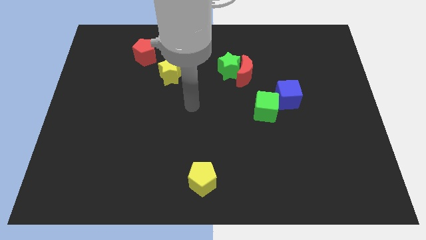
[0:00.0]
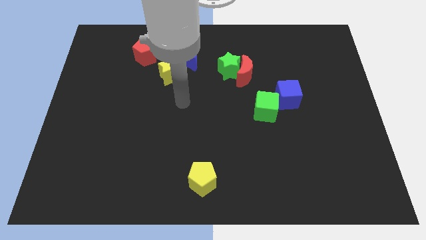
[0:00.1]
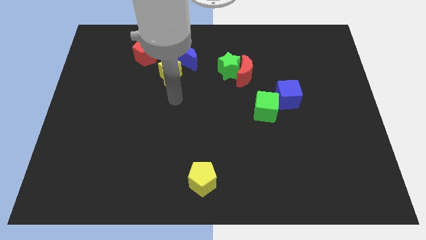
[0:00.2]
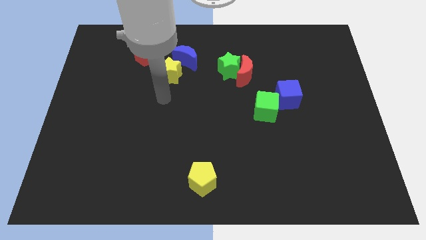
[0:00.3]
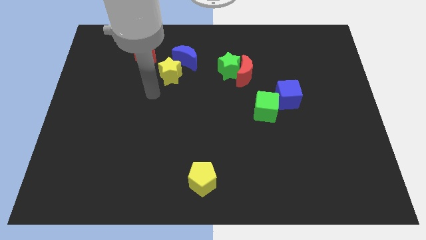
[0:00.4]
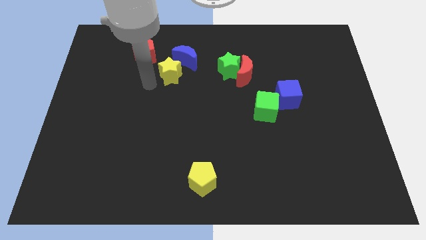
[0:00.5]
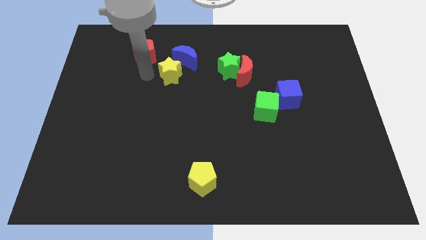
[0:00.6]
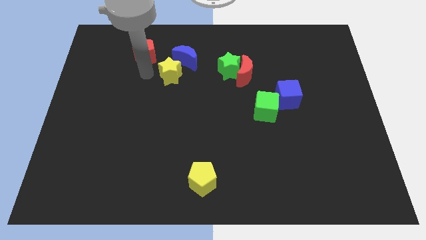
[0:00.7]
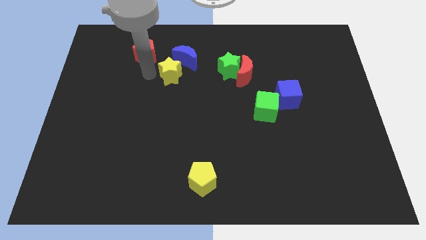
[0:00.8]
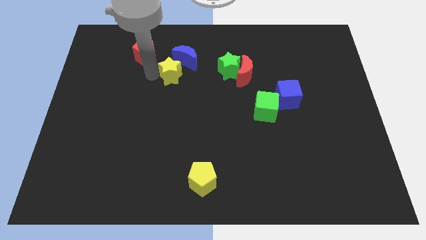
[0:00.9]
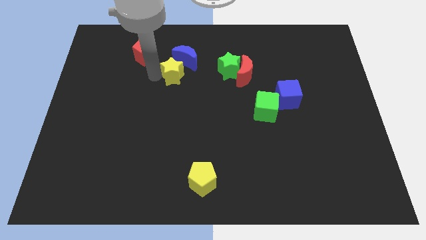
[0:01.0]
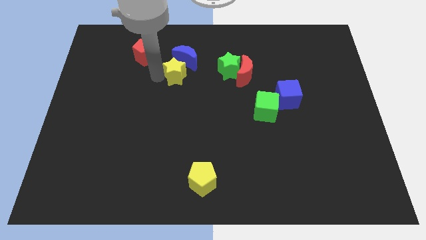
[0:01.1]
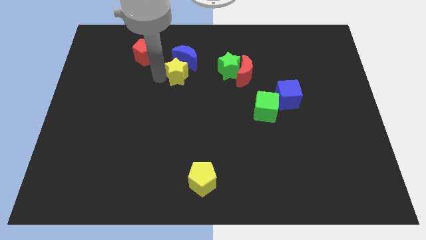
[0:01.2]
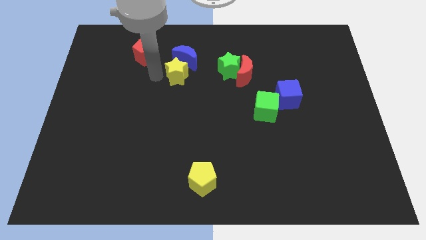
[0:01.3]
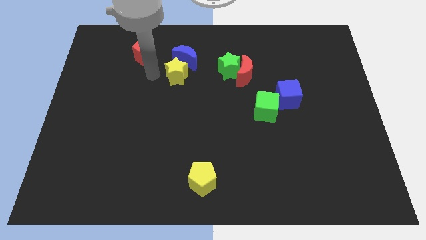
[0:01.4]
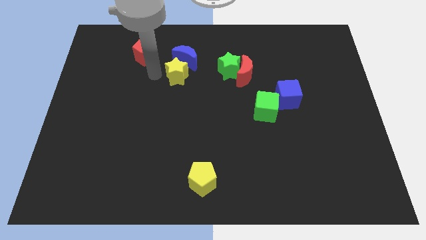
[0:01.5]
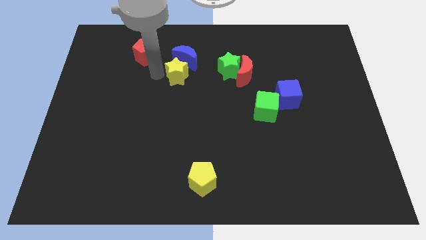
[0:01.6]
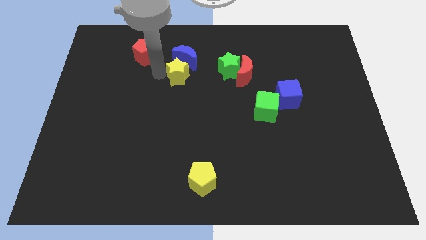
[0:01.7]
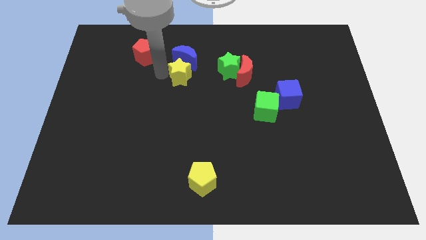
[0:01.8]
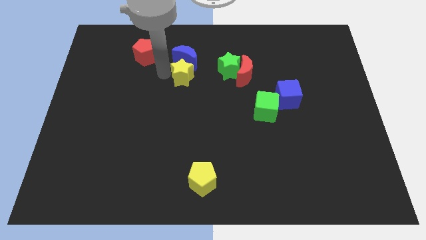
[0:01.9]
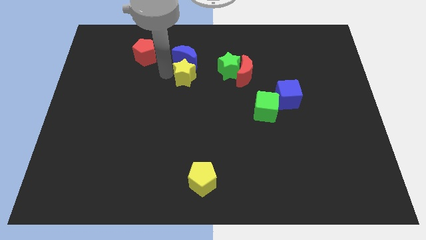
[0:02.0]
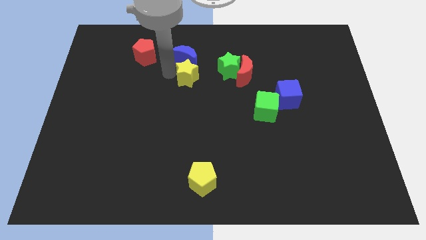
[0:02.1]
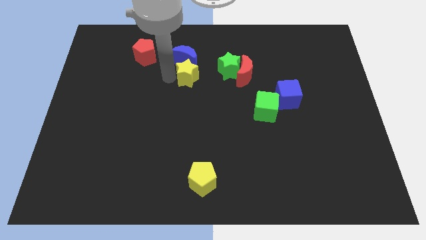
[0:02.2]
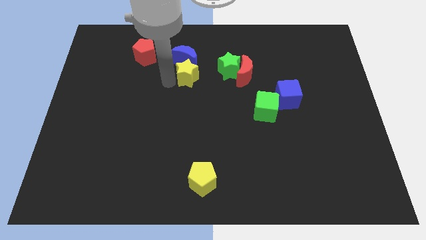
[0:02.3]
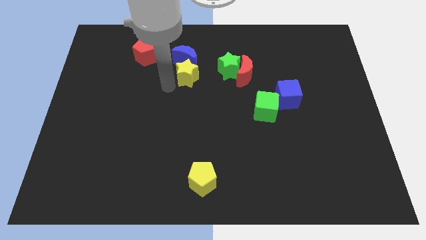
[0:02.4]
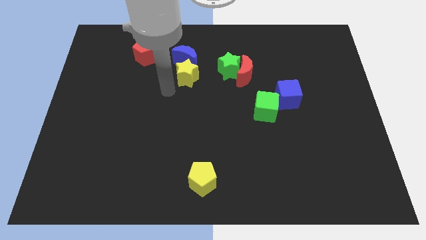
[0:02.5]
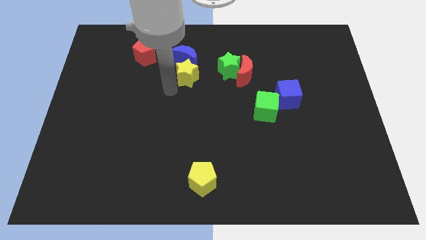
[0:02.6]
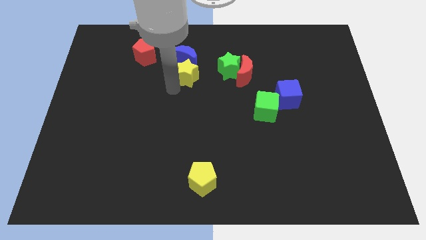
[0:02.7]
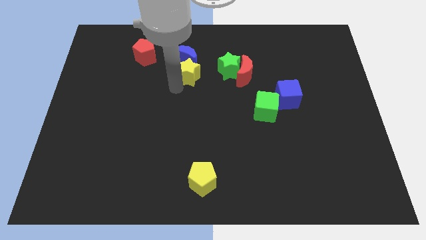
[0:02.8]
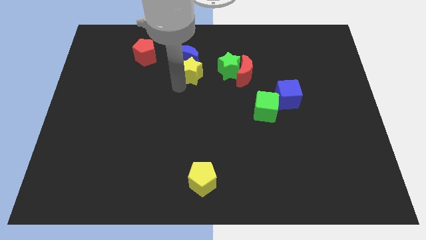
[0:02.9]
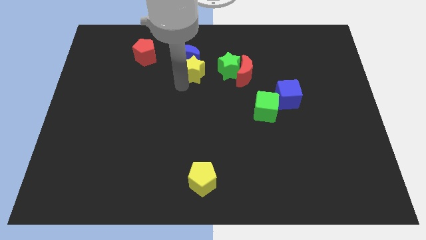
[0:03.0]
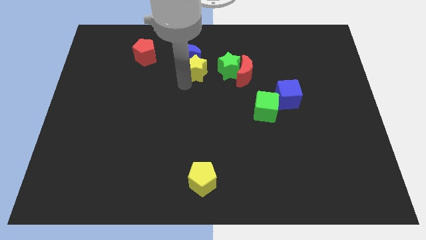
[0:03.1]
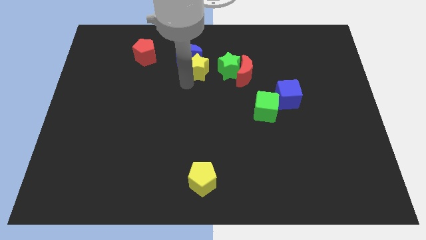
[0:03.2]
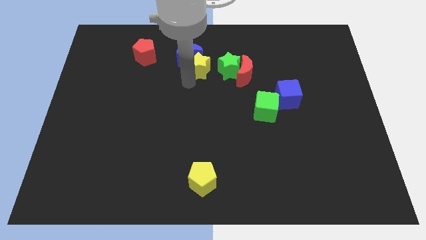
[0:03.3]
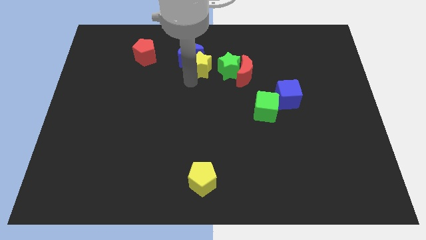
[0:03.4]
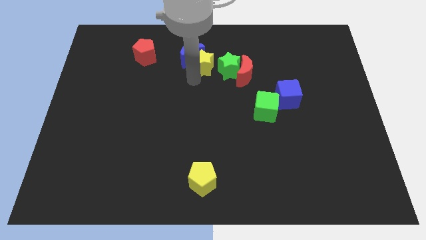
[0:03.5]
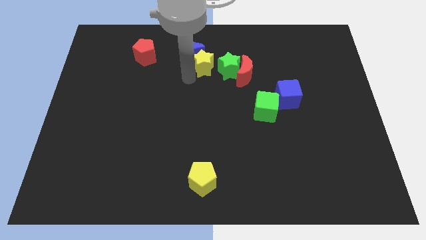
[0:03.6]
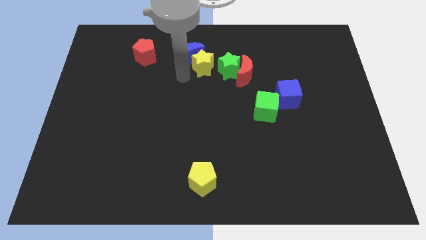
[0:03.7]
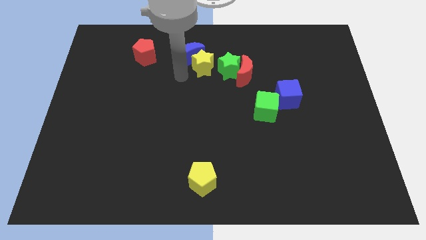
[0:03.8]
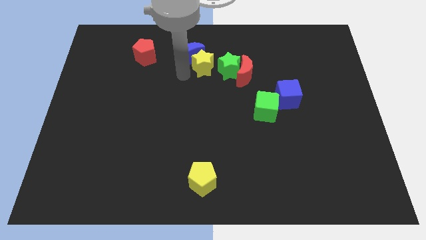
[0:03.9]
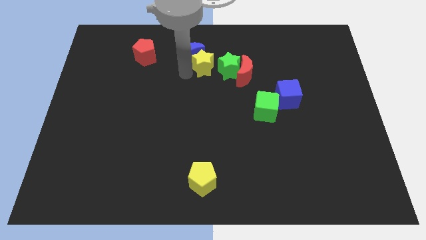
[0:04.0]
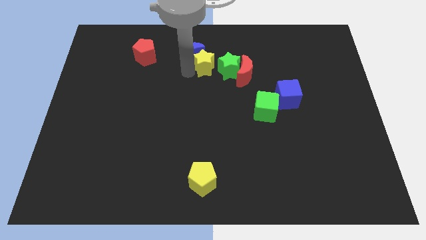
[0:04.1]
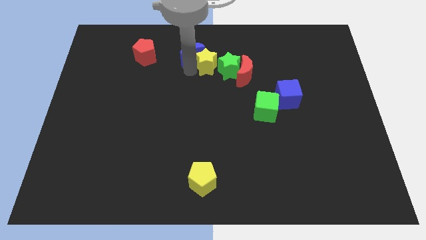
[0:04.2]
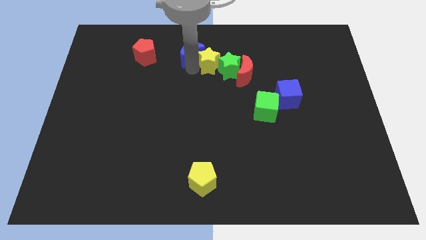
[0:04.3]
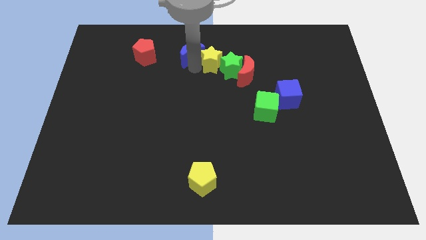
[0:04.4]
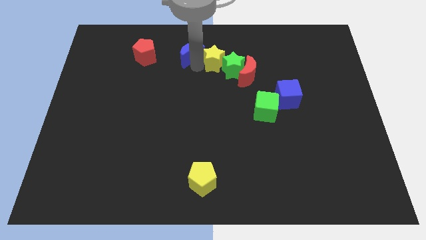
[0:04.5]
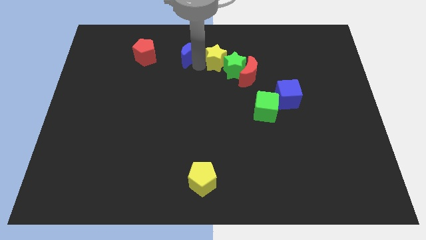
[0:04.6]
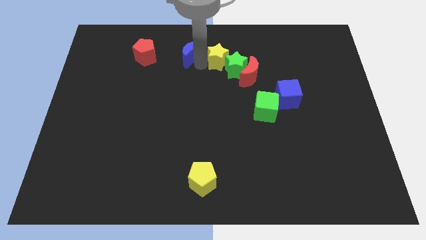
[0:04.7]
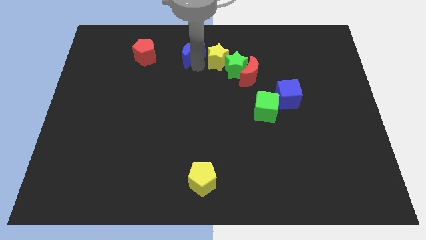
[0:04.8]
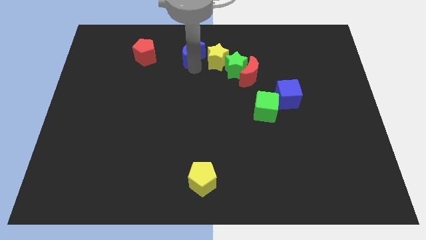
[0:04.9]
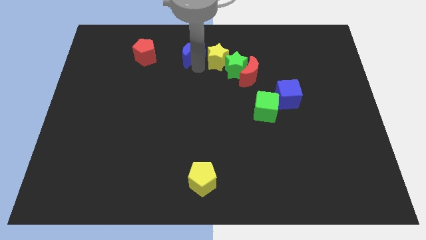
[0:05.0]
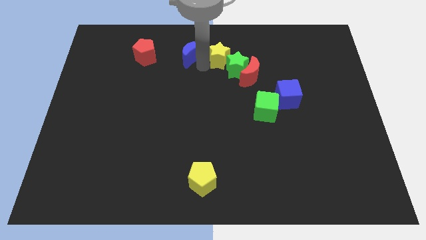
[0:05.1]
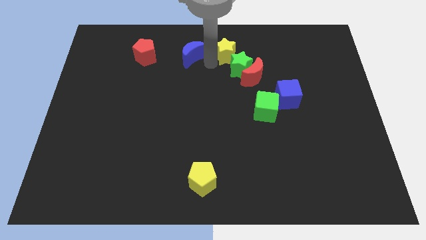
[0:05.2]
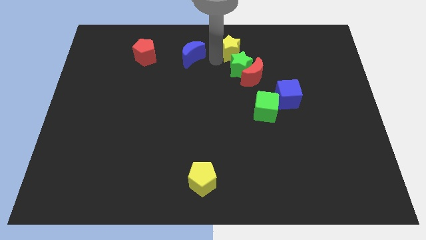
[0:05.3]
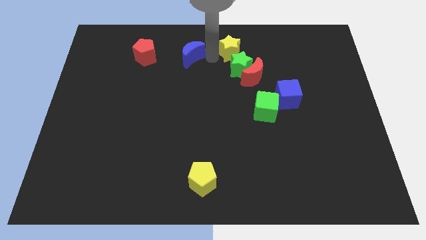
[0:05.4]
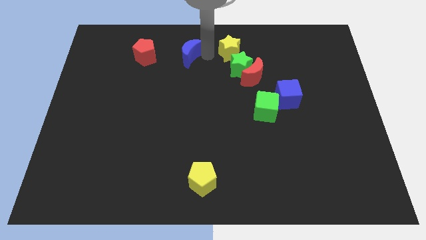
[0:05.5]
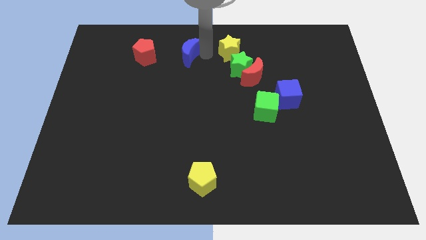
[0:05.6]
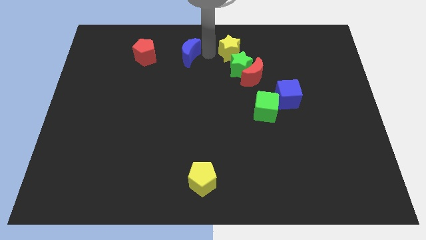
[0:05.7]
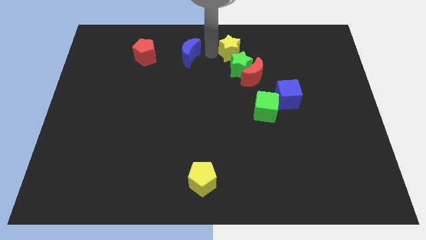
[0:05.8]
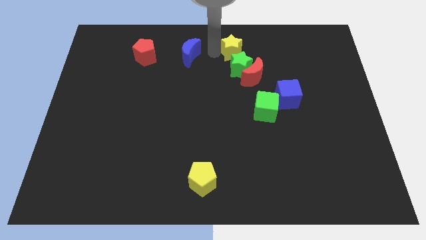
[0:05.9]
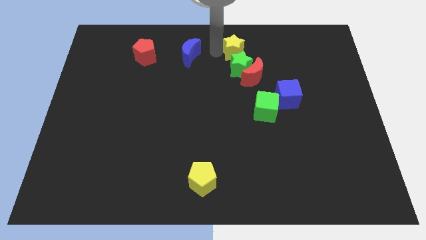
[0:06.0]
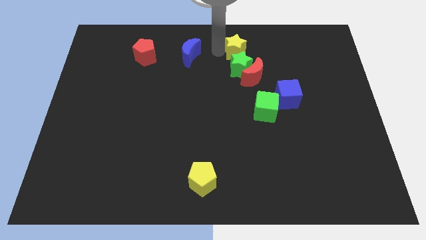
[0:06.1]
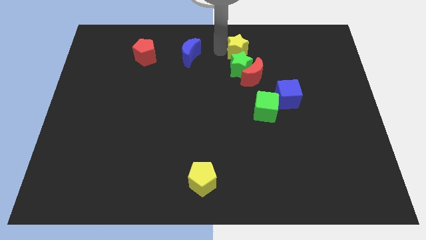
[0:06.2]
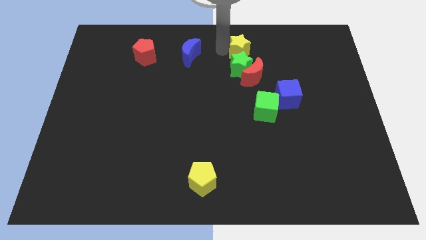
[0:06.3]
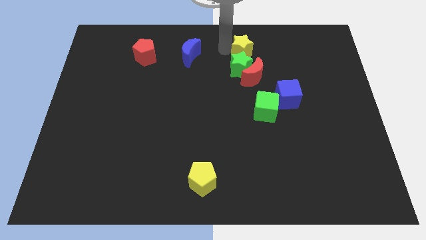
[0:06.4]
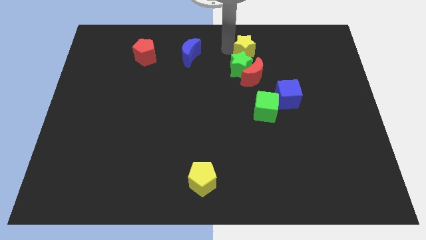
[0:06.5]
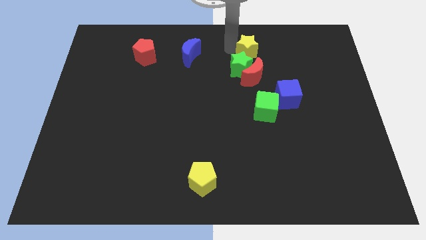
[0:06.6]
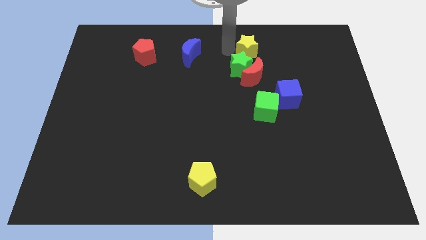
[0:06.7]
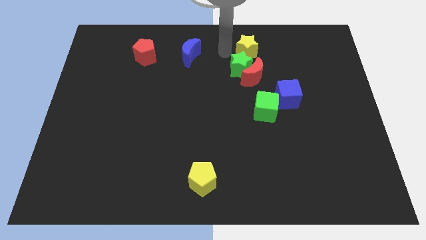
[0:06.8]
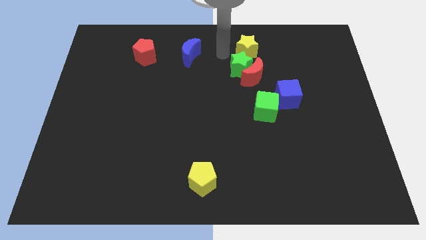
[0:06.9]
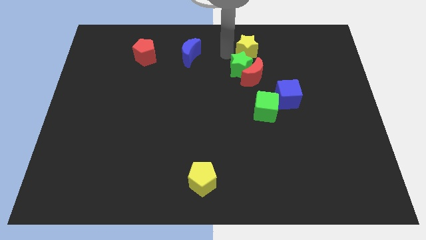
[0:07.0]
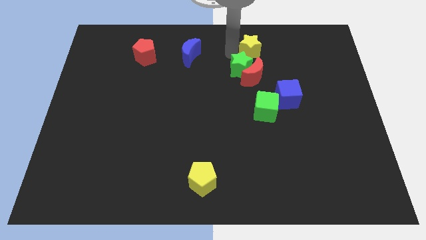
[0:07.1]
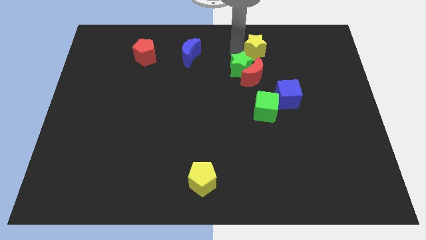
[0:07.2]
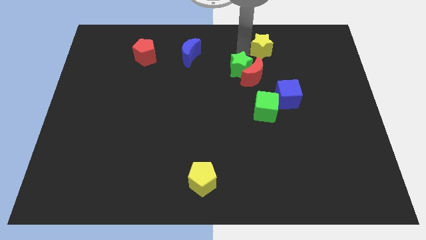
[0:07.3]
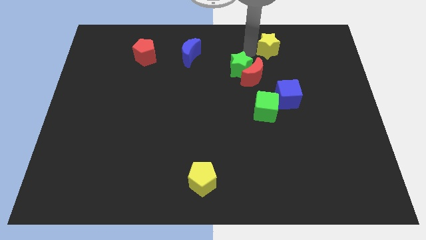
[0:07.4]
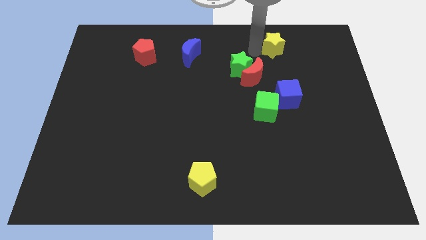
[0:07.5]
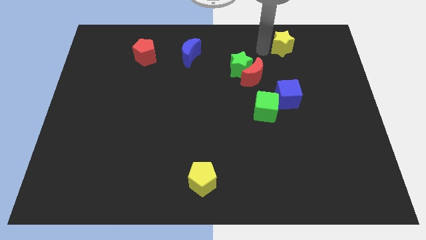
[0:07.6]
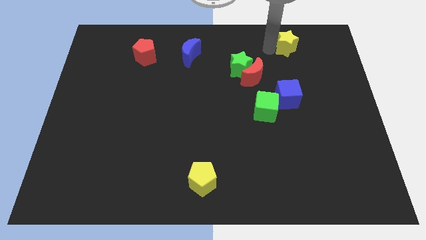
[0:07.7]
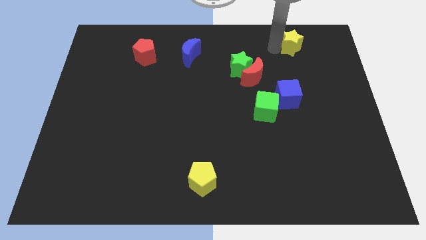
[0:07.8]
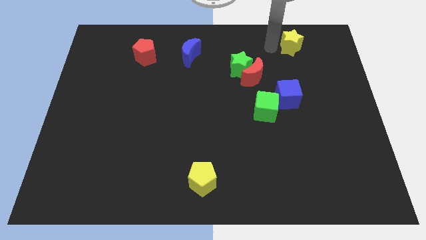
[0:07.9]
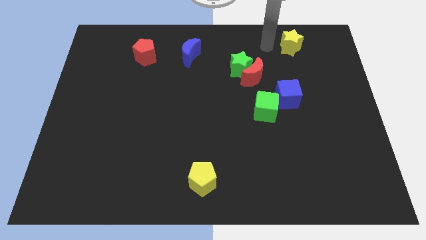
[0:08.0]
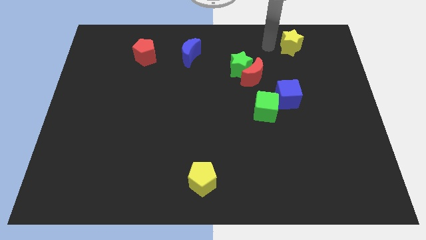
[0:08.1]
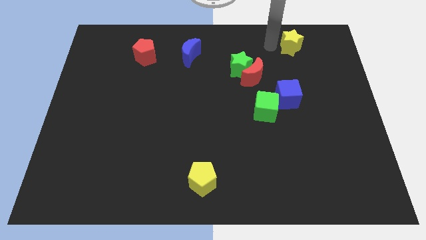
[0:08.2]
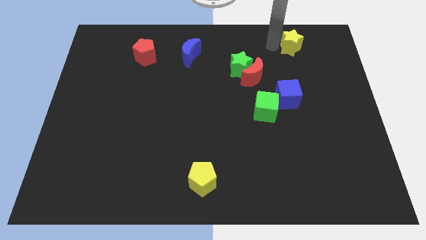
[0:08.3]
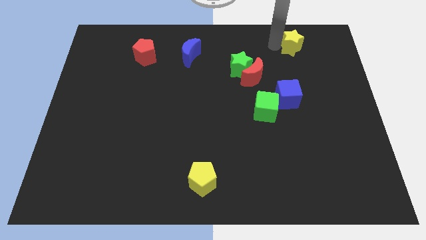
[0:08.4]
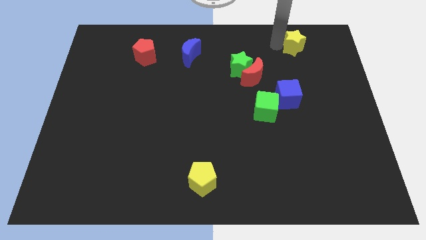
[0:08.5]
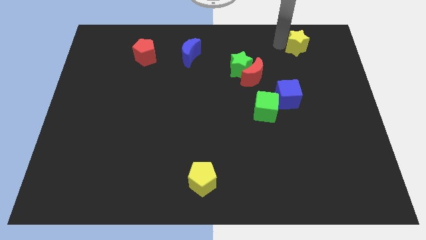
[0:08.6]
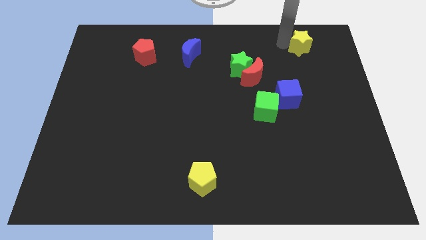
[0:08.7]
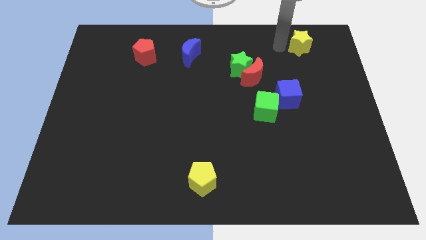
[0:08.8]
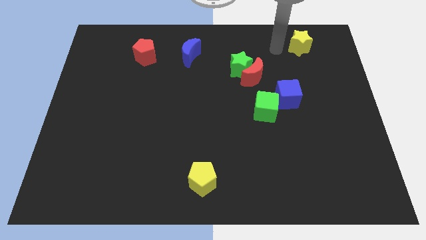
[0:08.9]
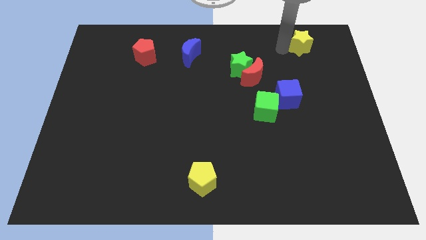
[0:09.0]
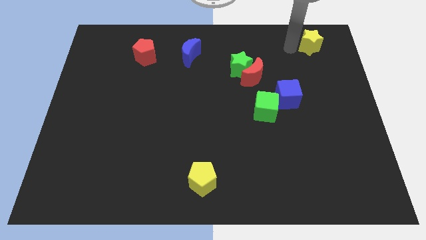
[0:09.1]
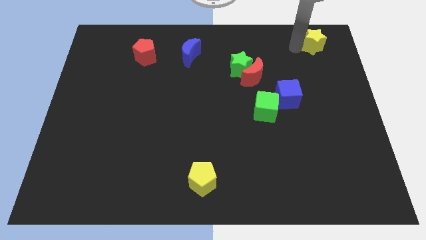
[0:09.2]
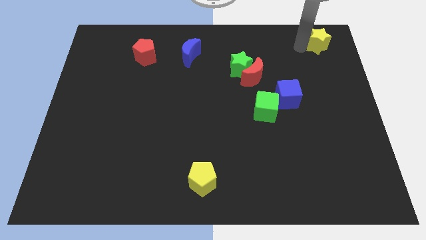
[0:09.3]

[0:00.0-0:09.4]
push the yellow star to the top right of the board
